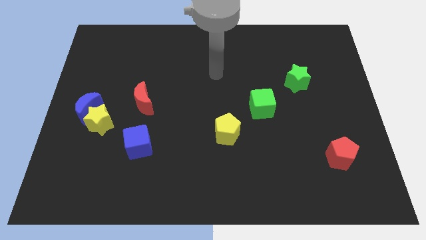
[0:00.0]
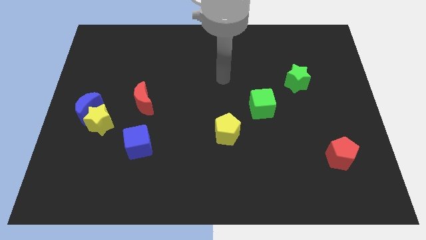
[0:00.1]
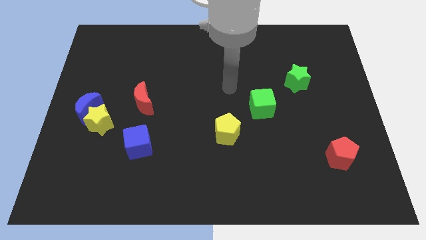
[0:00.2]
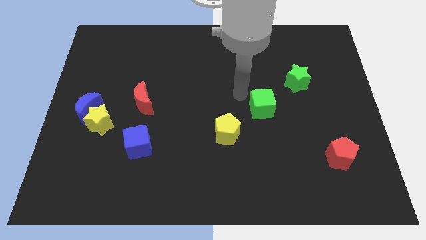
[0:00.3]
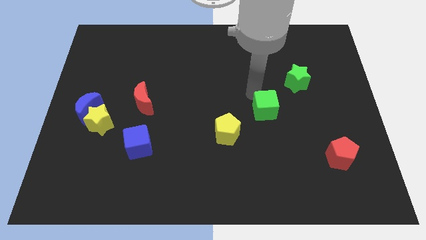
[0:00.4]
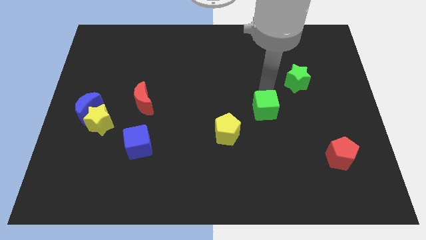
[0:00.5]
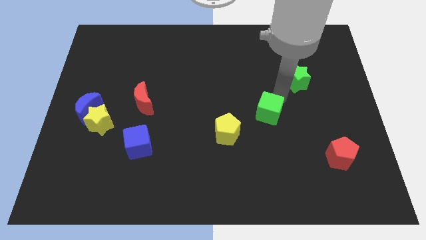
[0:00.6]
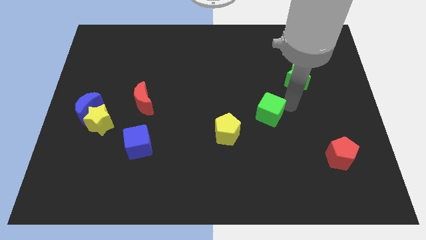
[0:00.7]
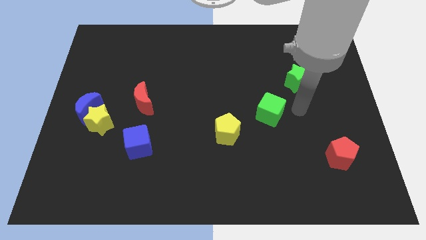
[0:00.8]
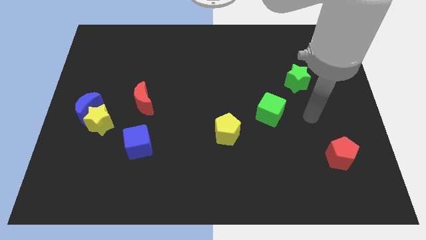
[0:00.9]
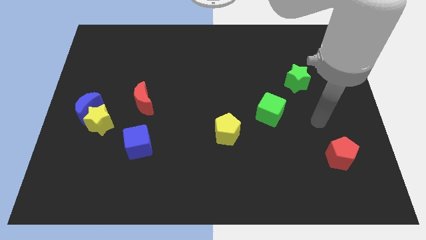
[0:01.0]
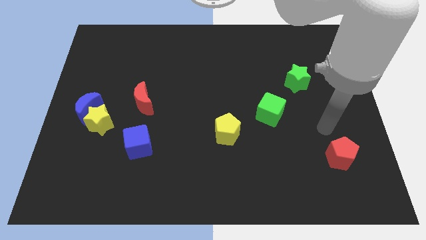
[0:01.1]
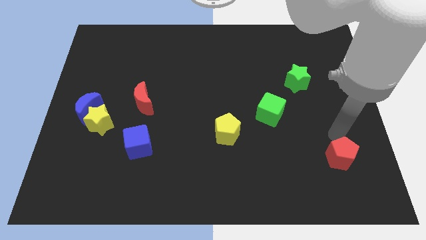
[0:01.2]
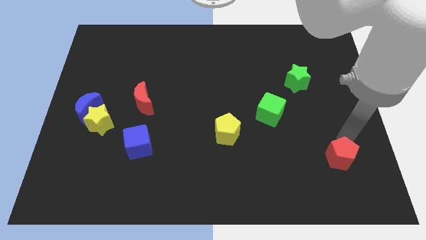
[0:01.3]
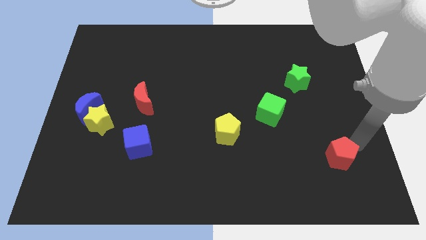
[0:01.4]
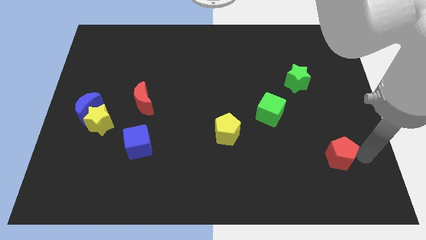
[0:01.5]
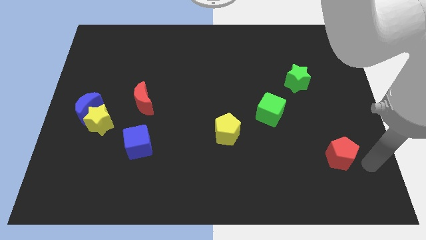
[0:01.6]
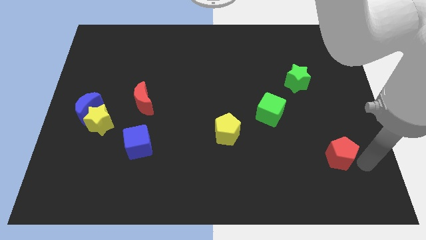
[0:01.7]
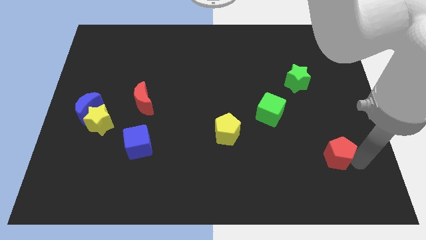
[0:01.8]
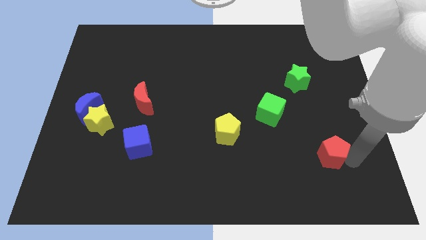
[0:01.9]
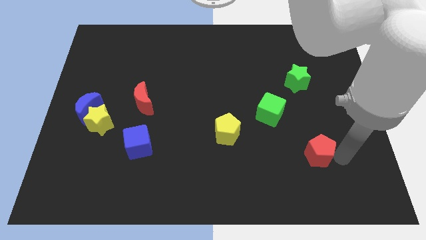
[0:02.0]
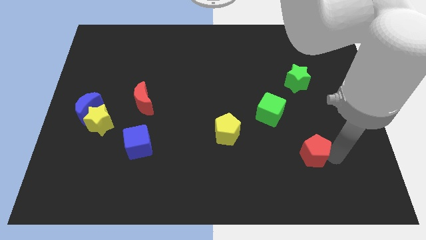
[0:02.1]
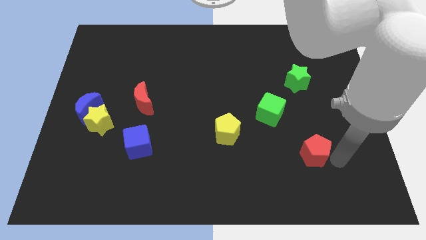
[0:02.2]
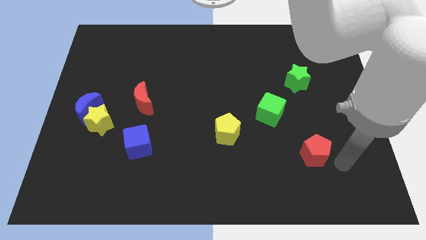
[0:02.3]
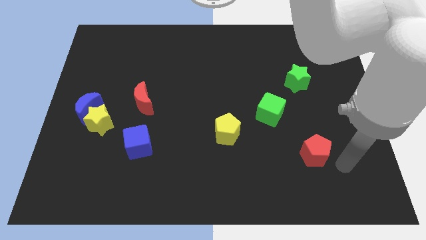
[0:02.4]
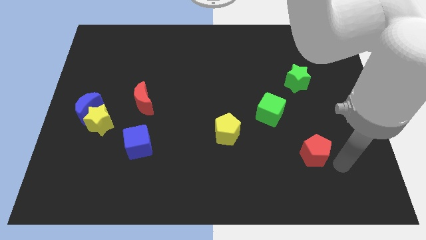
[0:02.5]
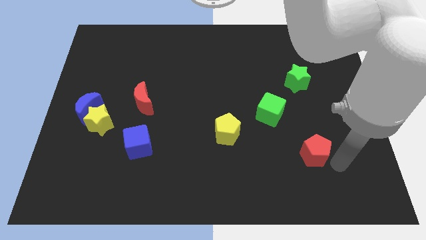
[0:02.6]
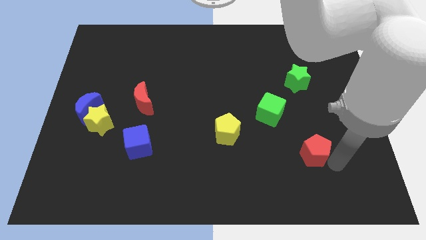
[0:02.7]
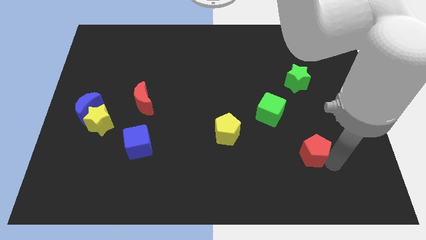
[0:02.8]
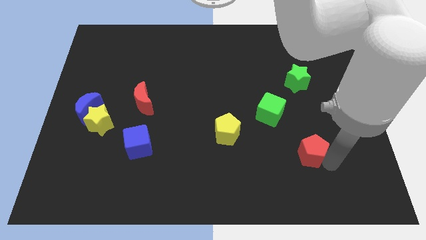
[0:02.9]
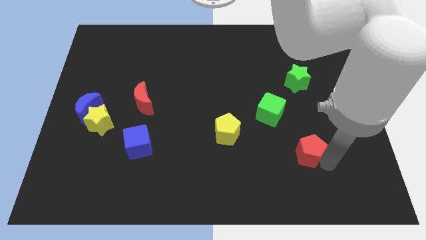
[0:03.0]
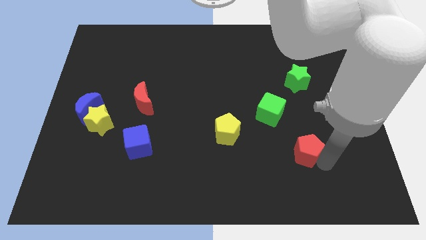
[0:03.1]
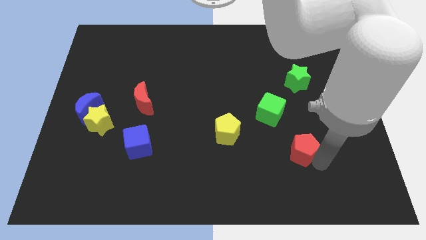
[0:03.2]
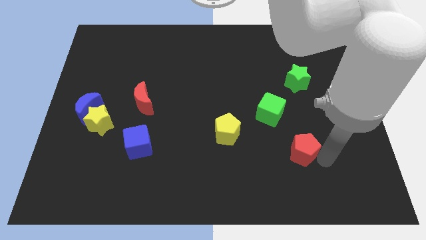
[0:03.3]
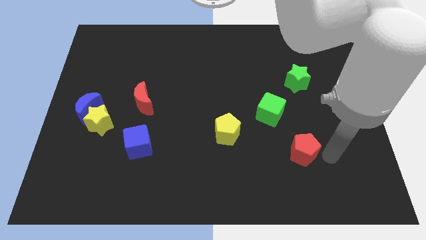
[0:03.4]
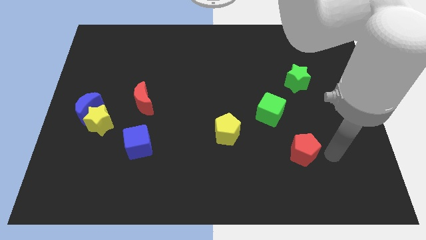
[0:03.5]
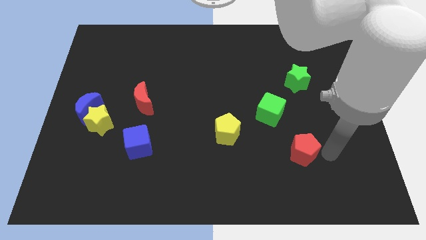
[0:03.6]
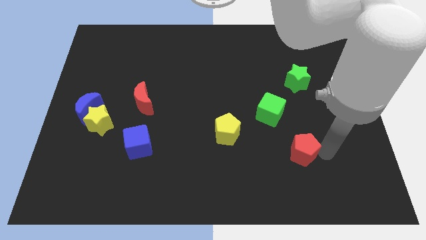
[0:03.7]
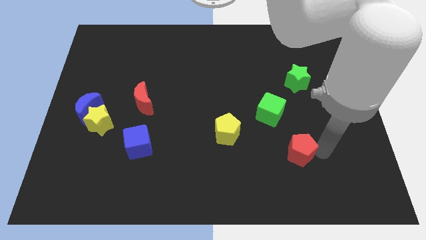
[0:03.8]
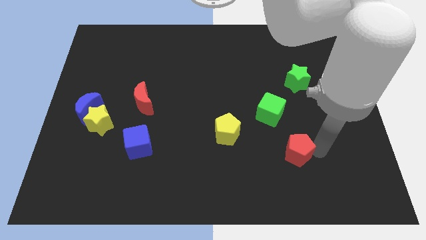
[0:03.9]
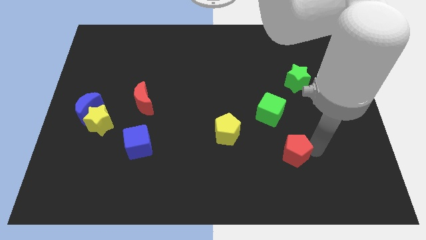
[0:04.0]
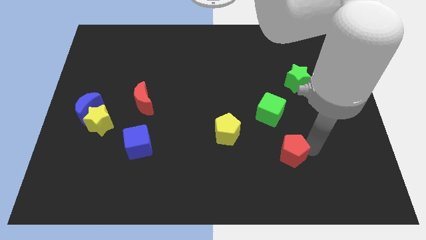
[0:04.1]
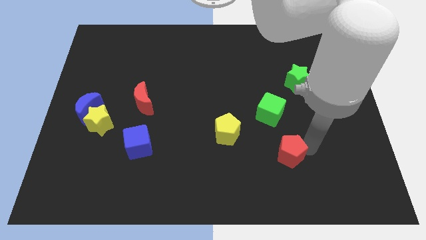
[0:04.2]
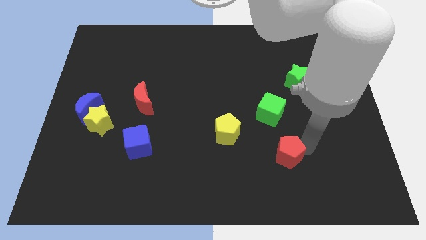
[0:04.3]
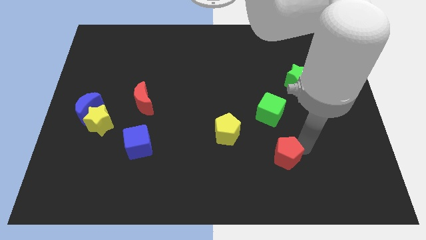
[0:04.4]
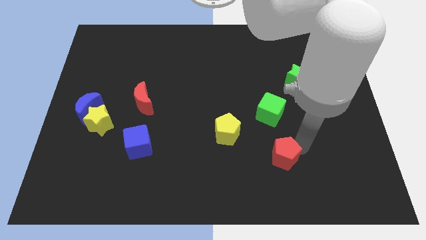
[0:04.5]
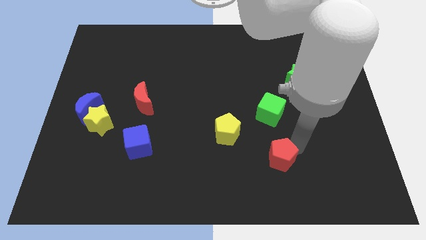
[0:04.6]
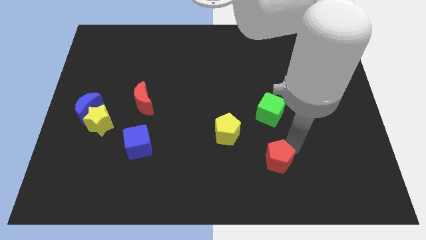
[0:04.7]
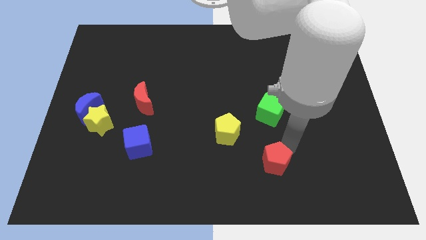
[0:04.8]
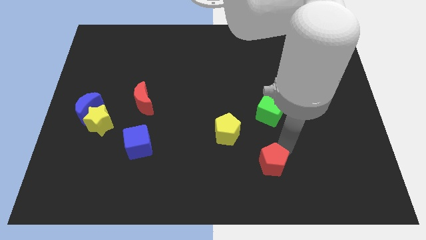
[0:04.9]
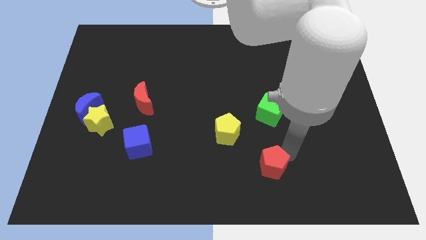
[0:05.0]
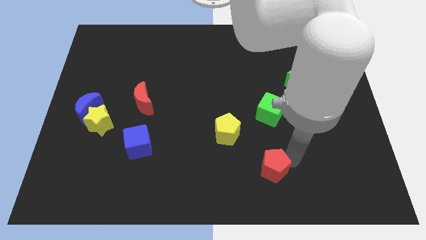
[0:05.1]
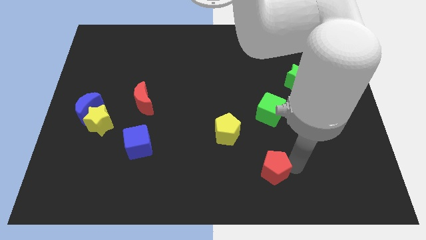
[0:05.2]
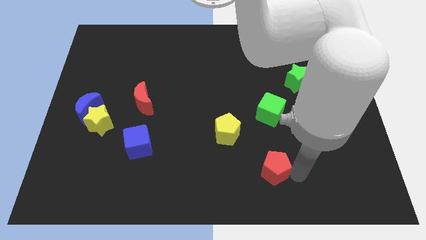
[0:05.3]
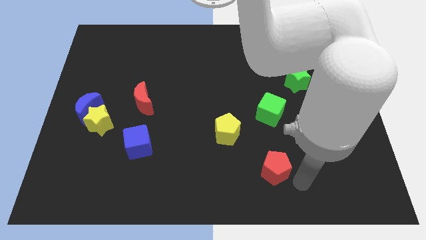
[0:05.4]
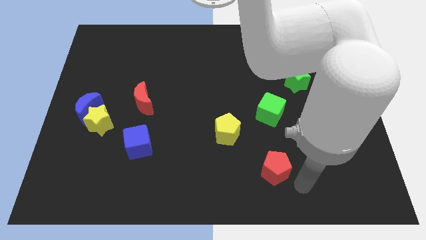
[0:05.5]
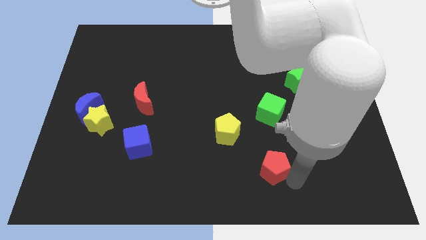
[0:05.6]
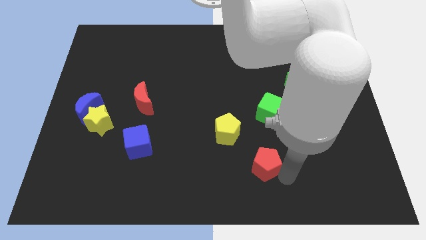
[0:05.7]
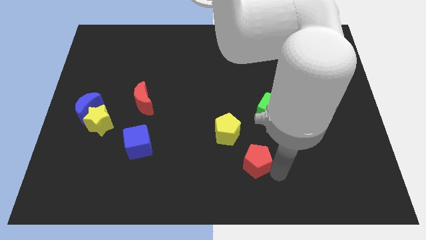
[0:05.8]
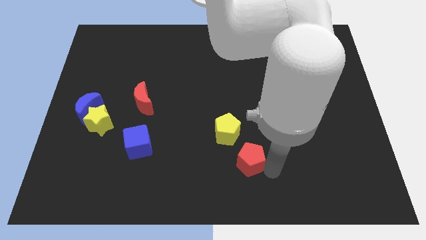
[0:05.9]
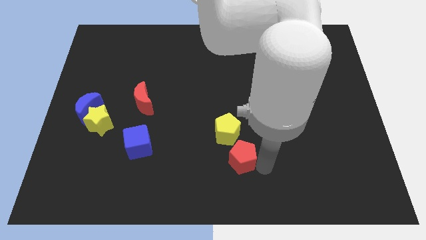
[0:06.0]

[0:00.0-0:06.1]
push the red pentagon left

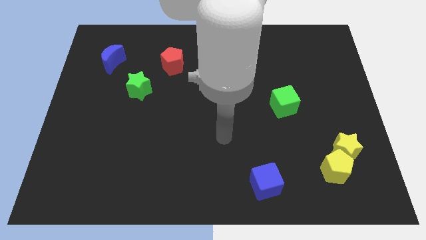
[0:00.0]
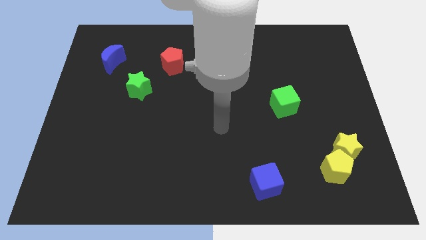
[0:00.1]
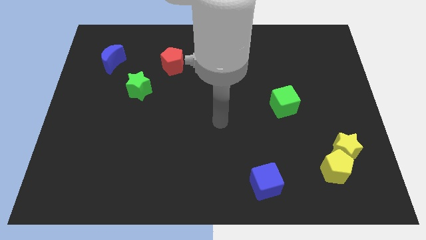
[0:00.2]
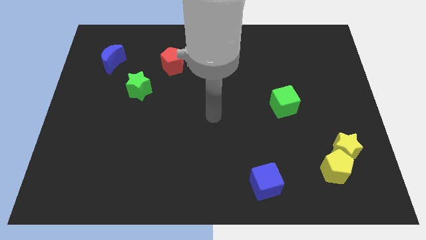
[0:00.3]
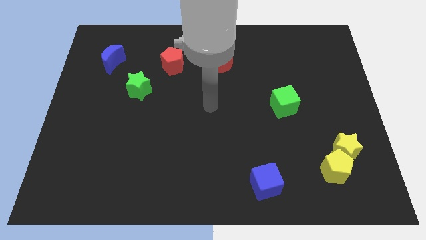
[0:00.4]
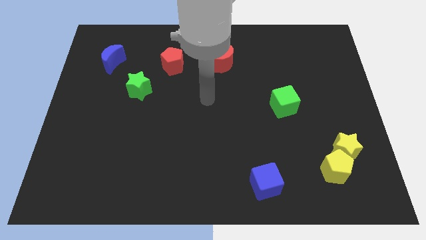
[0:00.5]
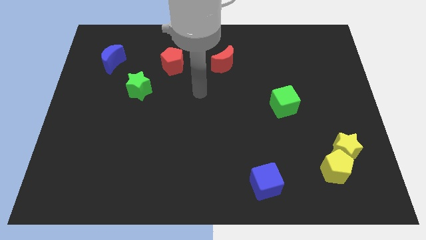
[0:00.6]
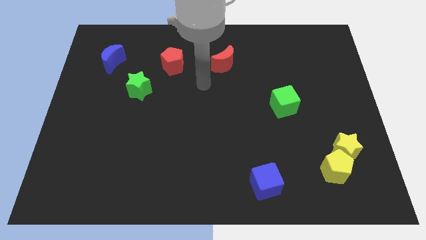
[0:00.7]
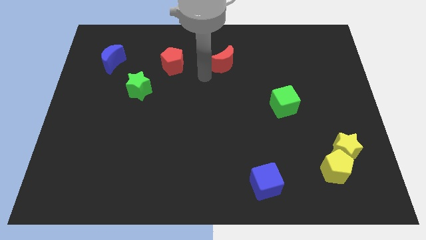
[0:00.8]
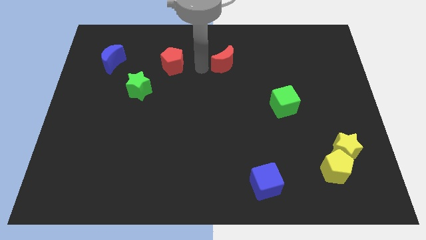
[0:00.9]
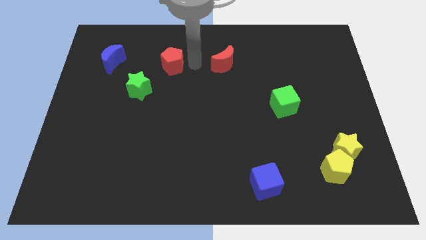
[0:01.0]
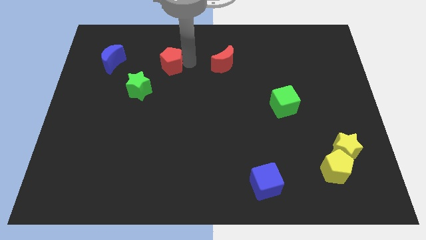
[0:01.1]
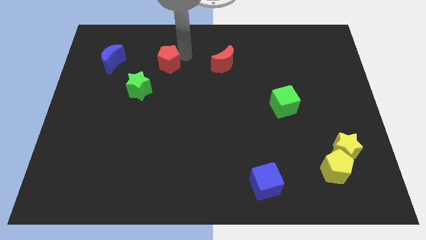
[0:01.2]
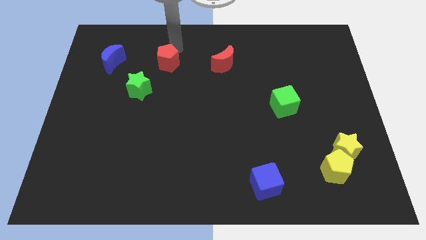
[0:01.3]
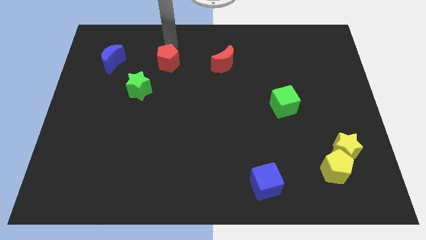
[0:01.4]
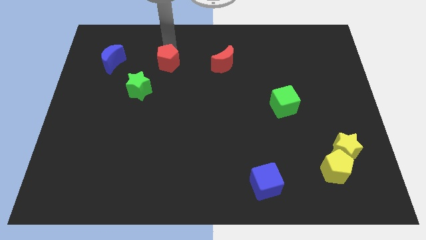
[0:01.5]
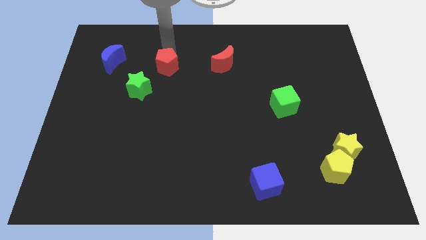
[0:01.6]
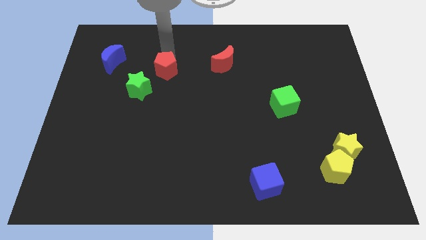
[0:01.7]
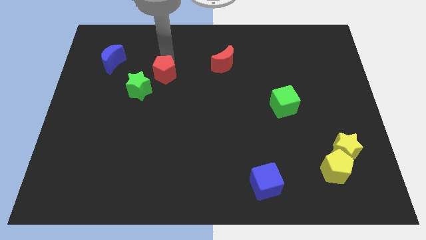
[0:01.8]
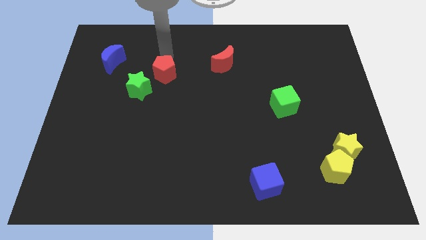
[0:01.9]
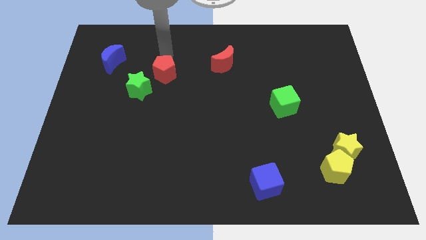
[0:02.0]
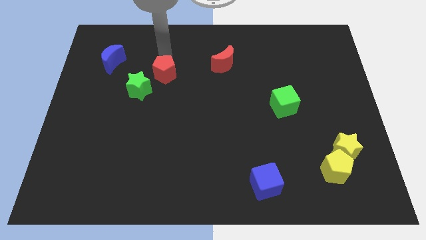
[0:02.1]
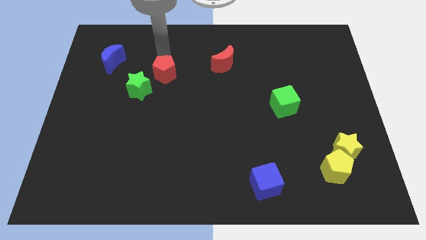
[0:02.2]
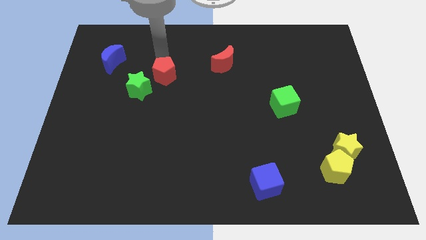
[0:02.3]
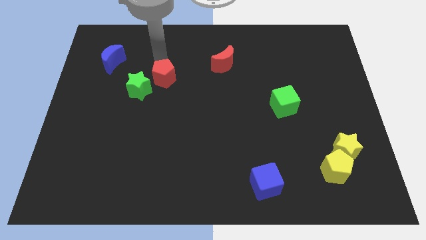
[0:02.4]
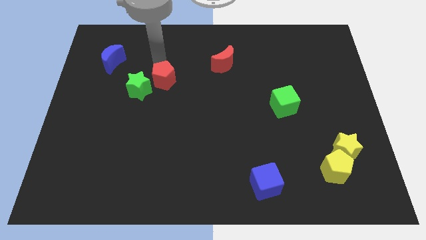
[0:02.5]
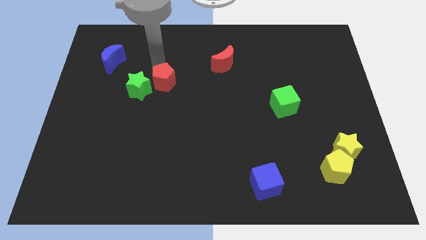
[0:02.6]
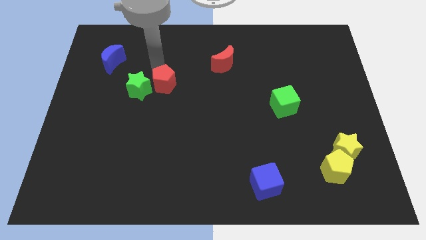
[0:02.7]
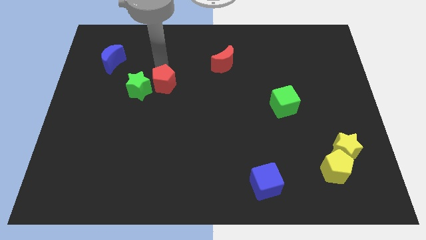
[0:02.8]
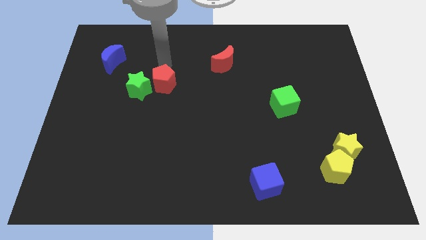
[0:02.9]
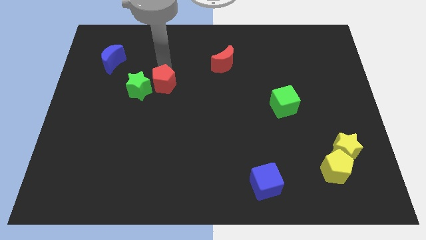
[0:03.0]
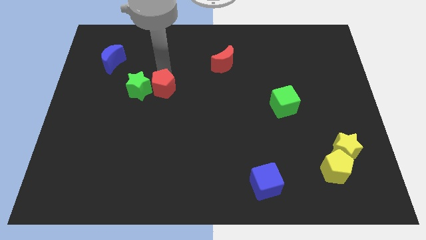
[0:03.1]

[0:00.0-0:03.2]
slide the red pentagon somewhat down
